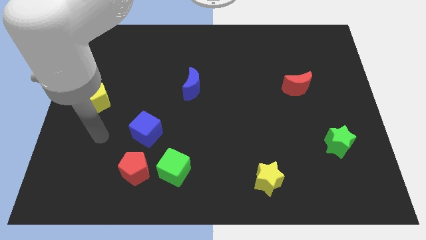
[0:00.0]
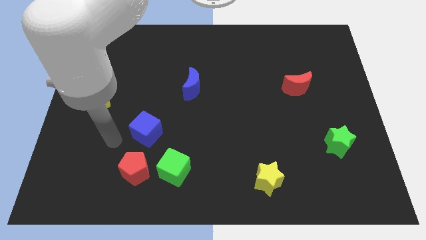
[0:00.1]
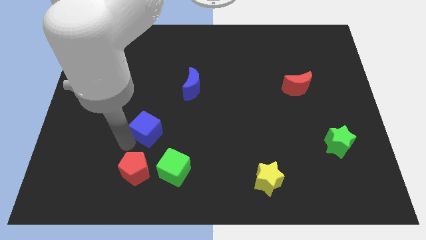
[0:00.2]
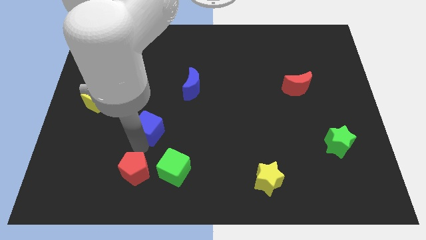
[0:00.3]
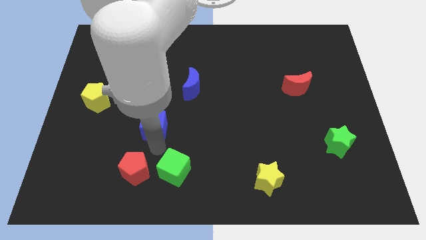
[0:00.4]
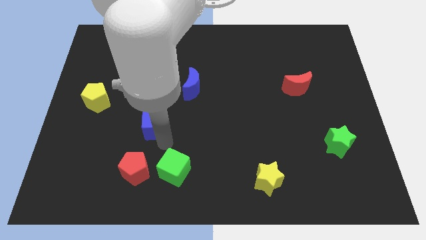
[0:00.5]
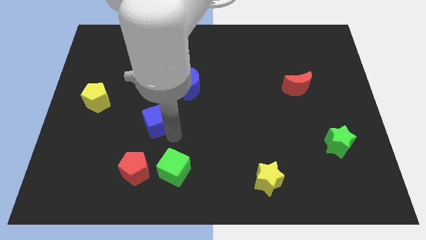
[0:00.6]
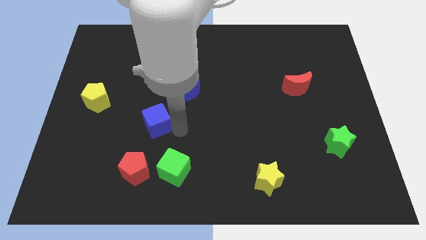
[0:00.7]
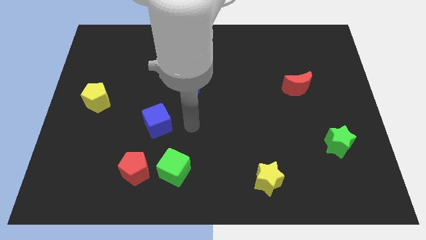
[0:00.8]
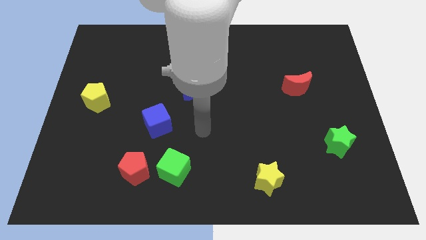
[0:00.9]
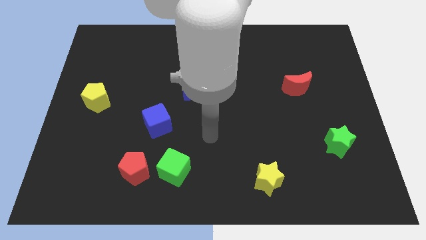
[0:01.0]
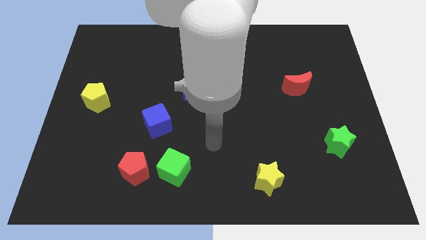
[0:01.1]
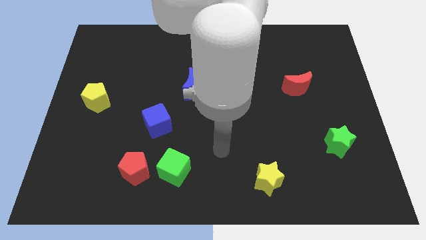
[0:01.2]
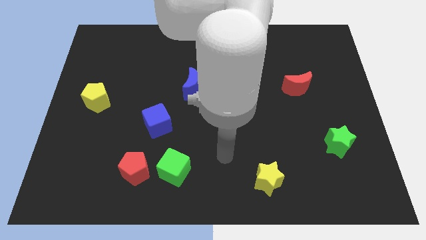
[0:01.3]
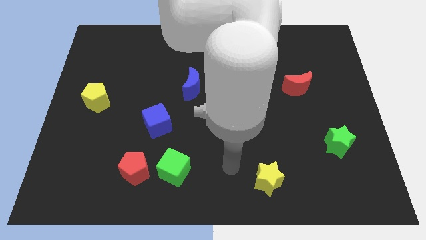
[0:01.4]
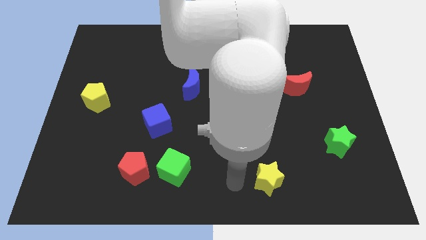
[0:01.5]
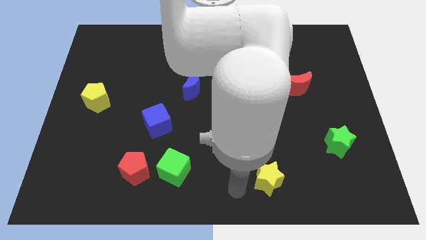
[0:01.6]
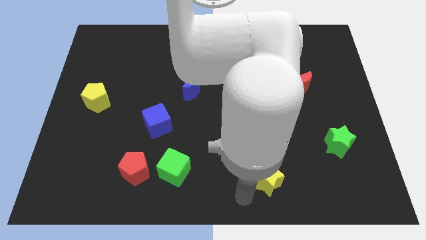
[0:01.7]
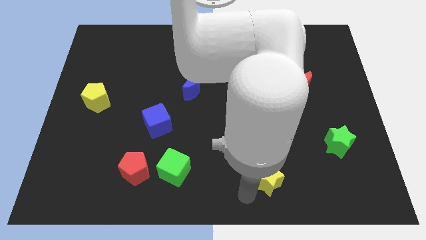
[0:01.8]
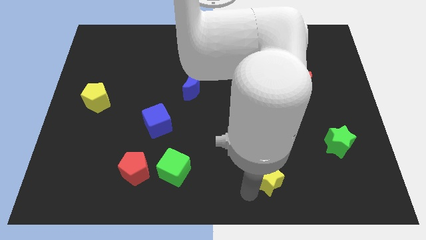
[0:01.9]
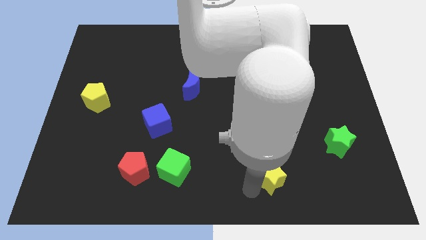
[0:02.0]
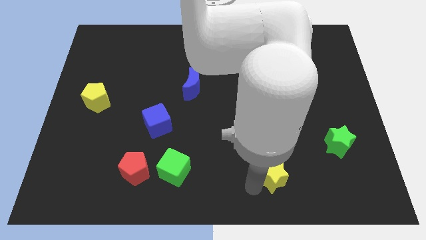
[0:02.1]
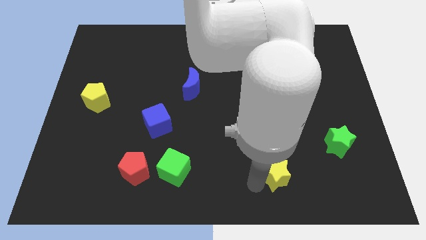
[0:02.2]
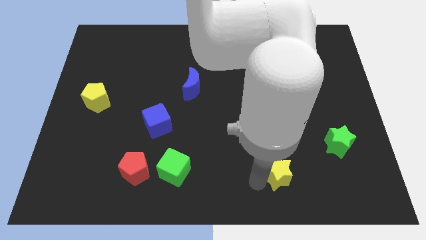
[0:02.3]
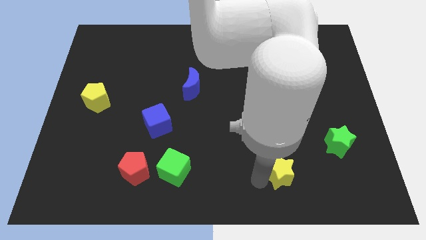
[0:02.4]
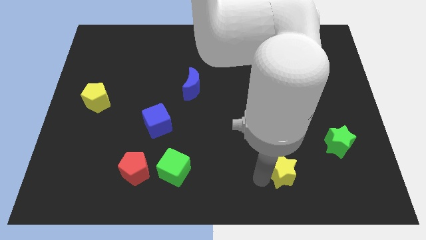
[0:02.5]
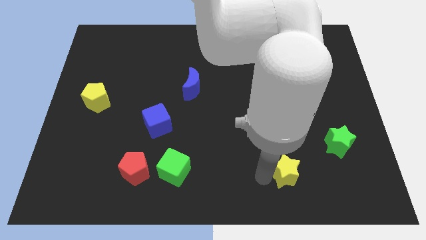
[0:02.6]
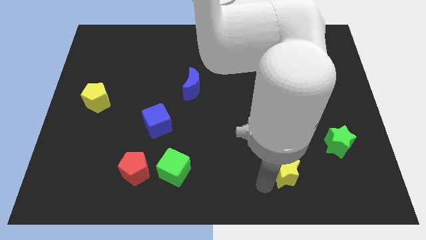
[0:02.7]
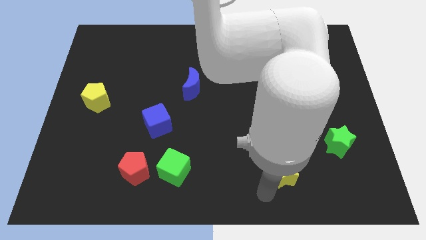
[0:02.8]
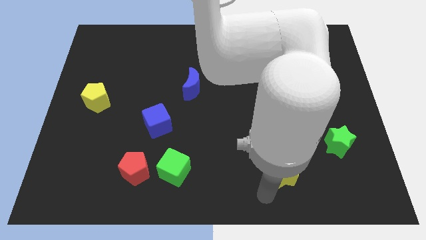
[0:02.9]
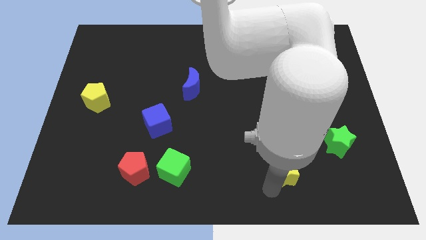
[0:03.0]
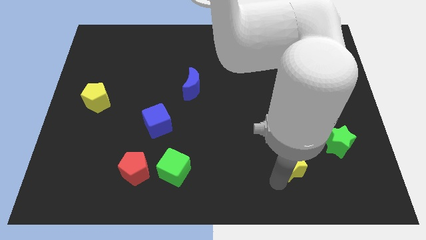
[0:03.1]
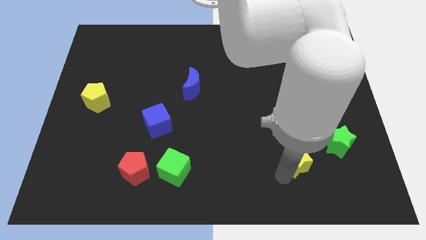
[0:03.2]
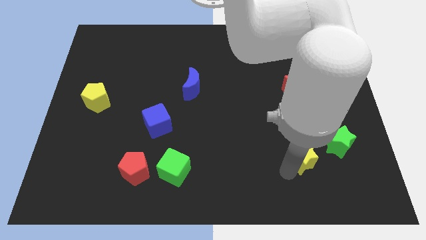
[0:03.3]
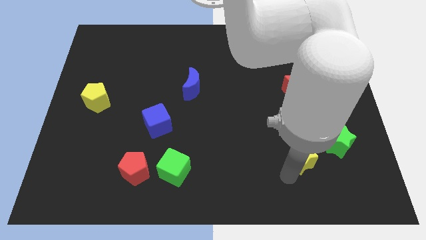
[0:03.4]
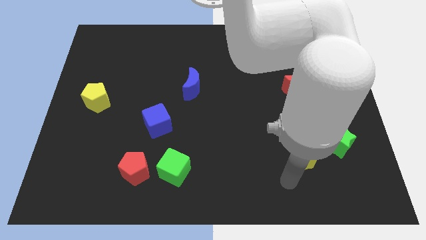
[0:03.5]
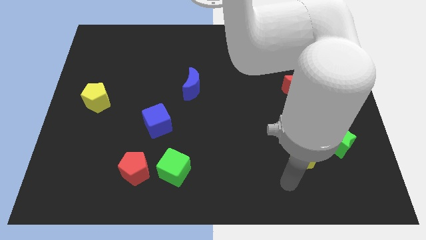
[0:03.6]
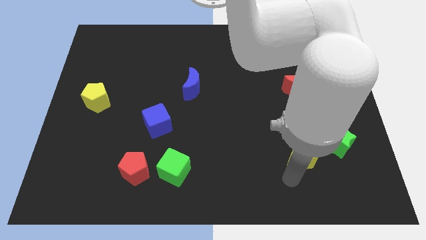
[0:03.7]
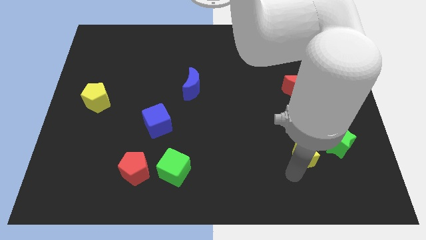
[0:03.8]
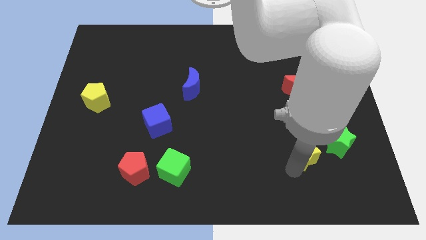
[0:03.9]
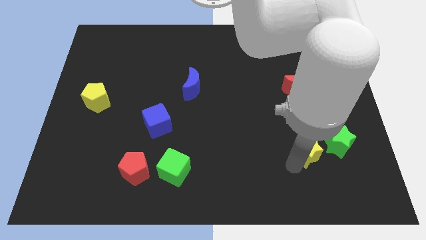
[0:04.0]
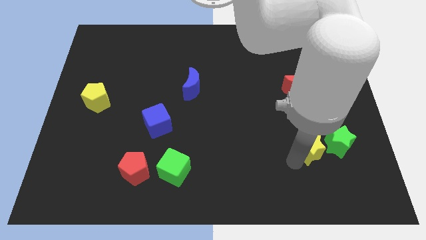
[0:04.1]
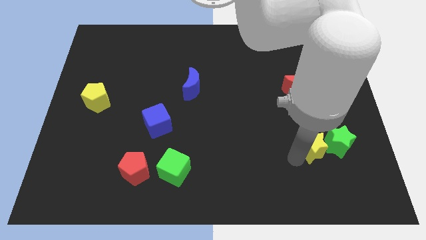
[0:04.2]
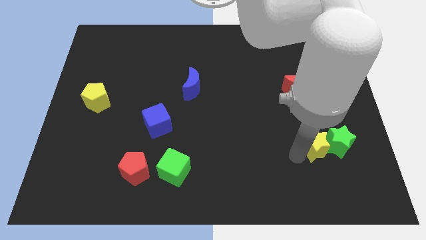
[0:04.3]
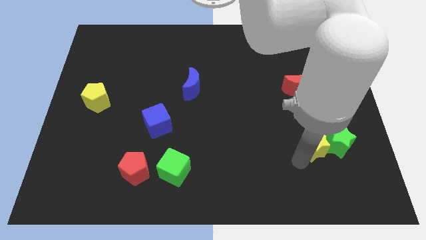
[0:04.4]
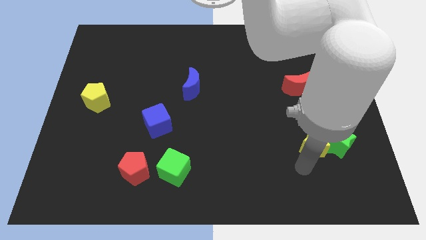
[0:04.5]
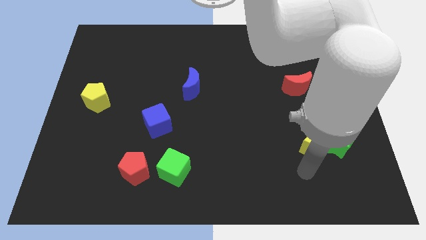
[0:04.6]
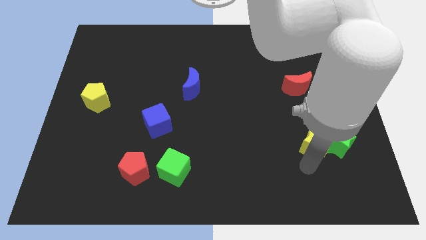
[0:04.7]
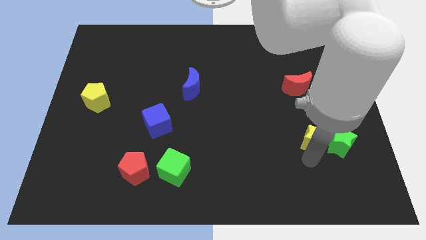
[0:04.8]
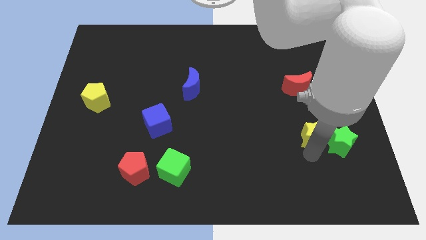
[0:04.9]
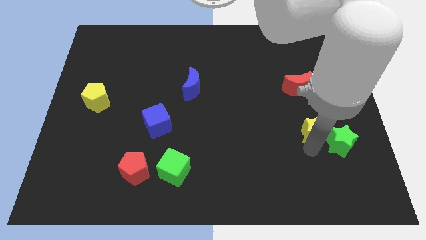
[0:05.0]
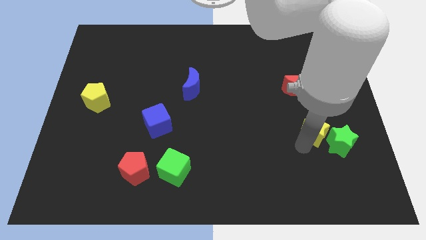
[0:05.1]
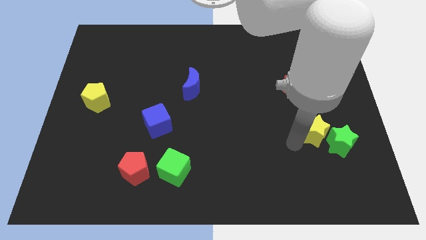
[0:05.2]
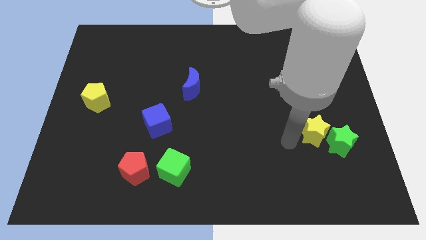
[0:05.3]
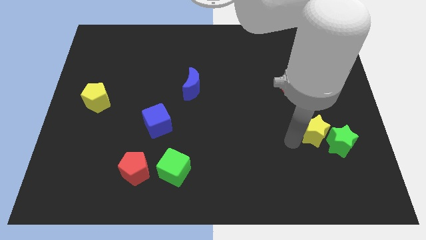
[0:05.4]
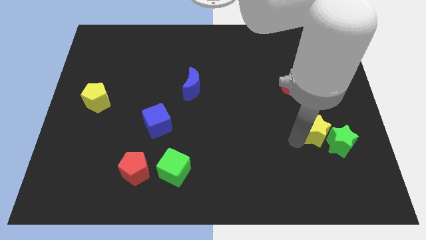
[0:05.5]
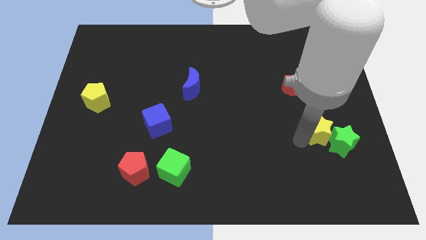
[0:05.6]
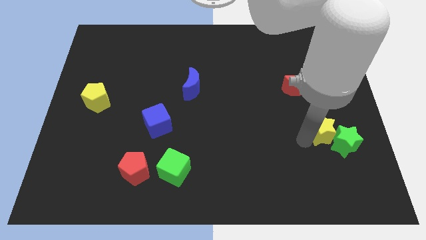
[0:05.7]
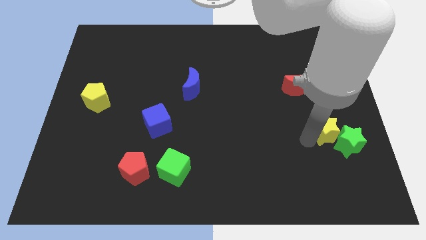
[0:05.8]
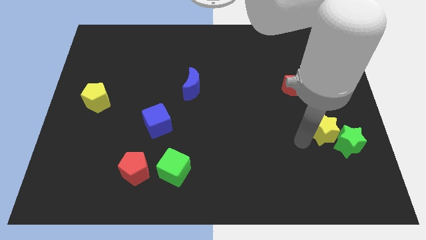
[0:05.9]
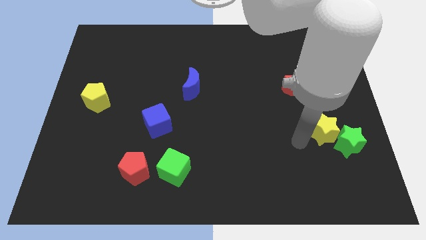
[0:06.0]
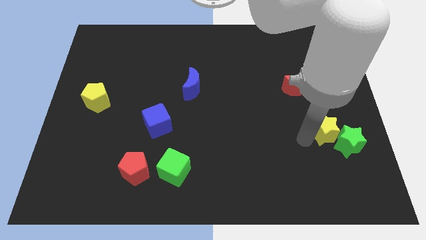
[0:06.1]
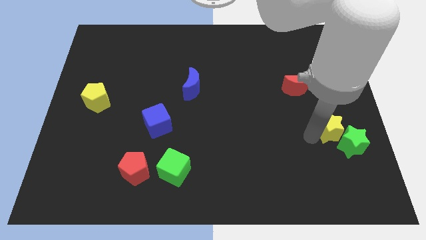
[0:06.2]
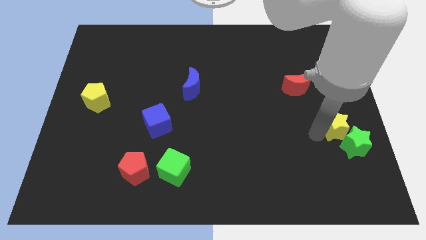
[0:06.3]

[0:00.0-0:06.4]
move the yellow star to the center right

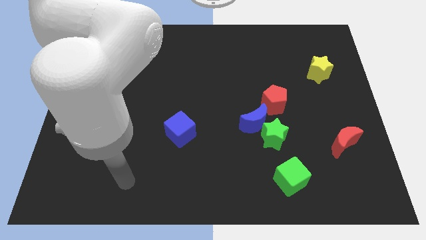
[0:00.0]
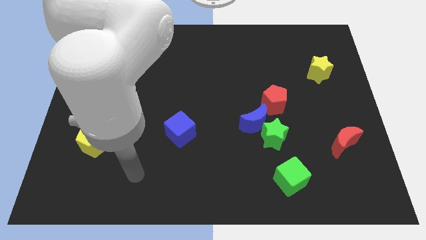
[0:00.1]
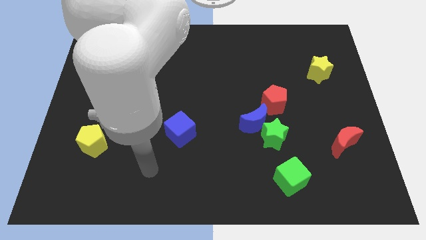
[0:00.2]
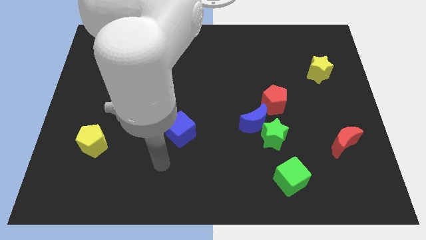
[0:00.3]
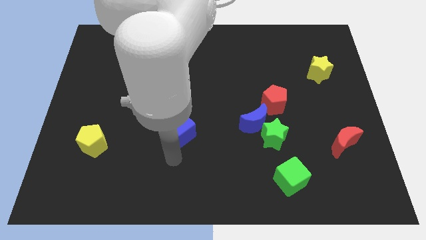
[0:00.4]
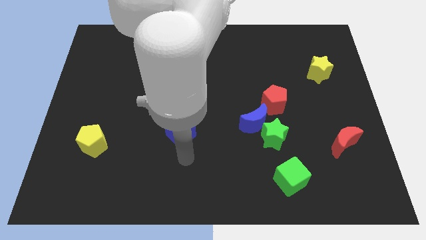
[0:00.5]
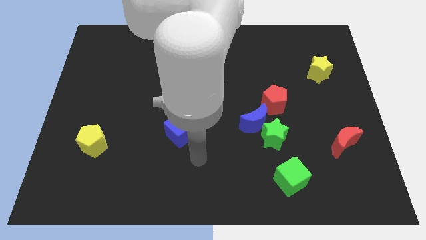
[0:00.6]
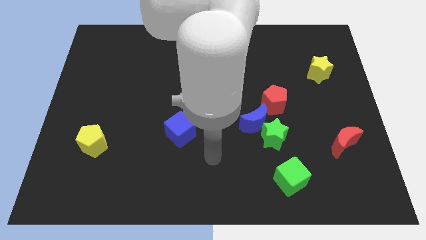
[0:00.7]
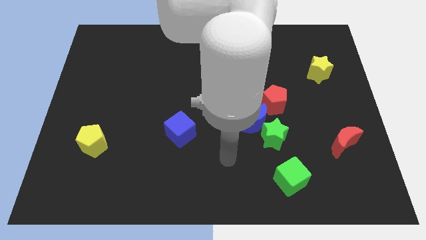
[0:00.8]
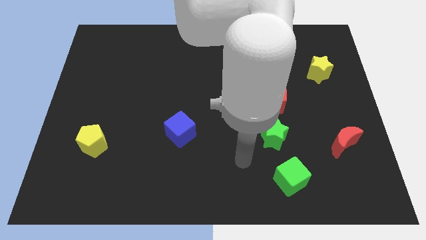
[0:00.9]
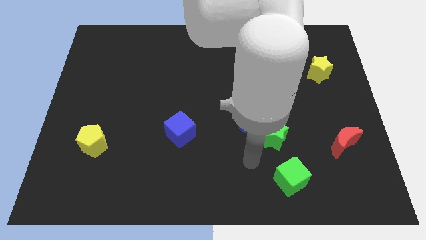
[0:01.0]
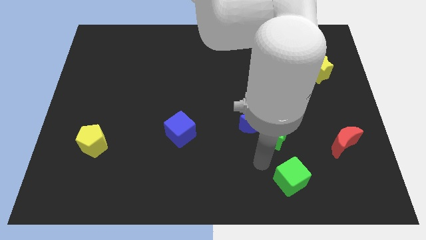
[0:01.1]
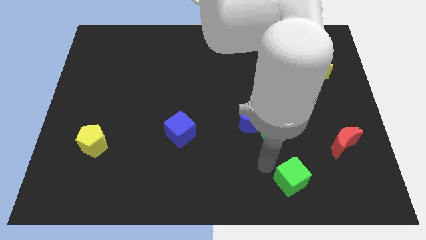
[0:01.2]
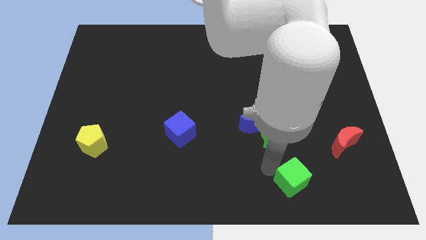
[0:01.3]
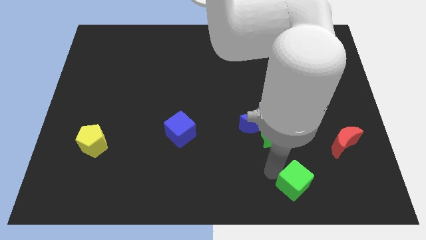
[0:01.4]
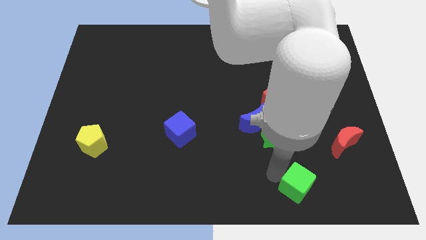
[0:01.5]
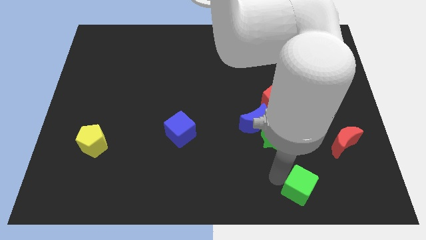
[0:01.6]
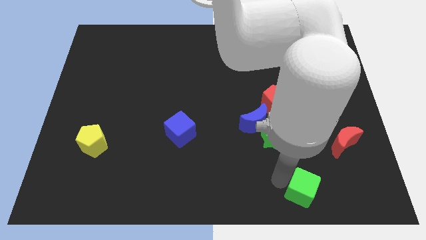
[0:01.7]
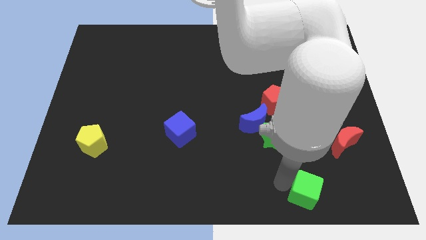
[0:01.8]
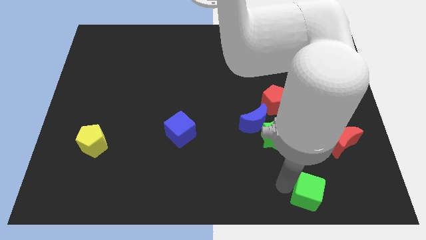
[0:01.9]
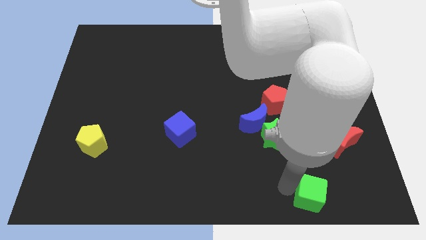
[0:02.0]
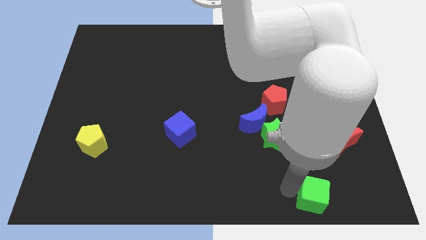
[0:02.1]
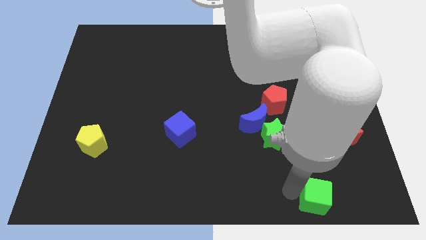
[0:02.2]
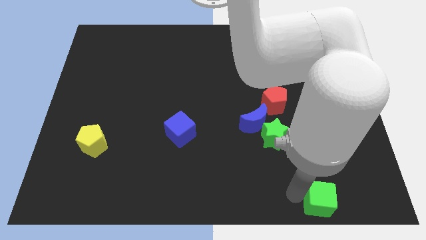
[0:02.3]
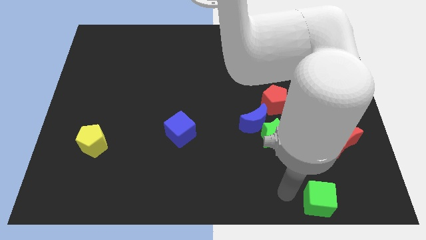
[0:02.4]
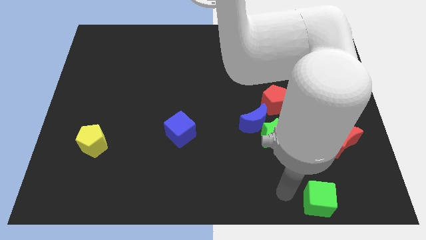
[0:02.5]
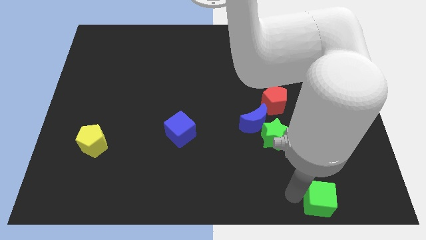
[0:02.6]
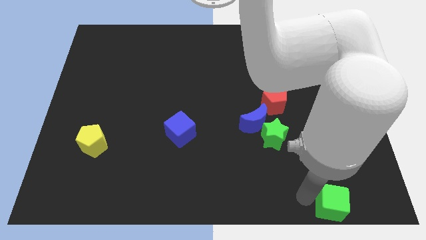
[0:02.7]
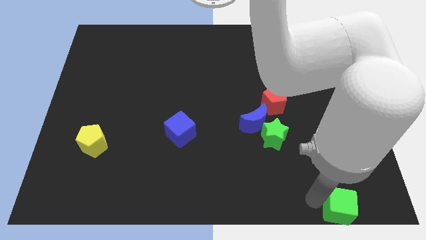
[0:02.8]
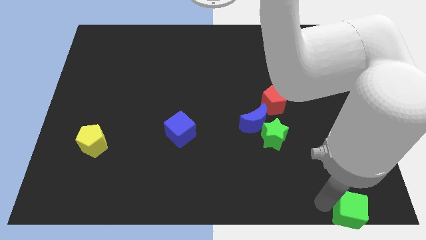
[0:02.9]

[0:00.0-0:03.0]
slide the green cube to the bottom right corner
